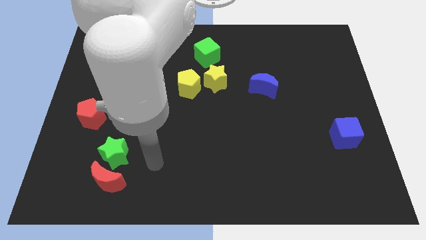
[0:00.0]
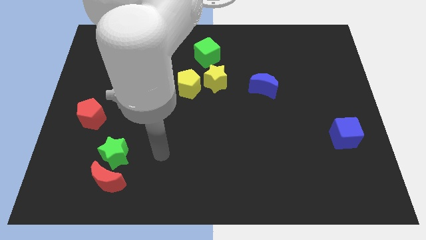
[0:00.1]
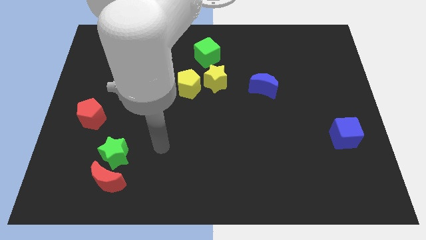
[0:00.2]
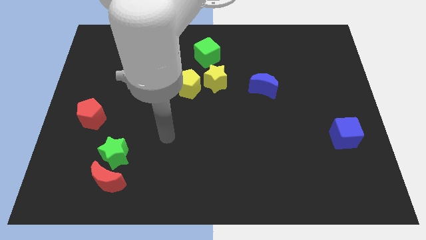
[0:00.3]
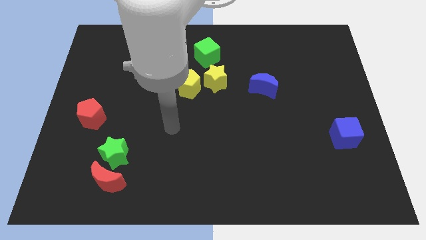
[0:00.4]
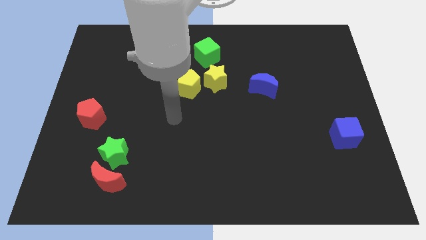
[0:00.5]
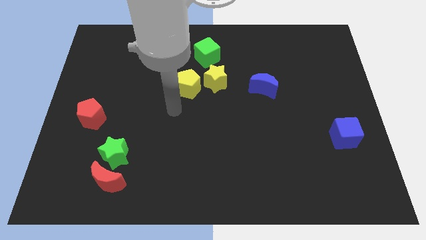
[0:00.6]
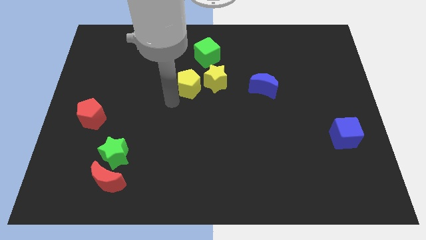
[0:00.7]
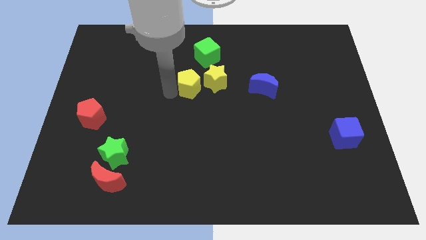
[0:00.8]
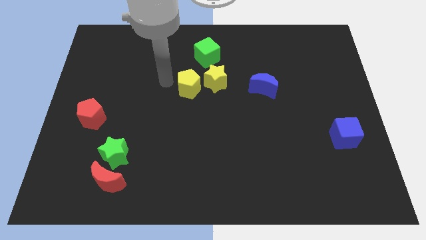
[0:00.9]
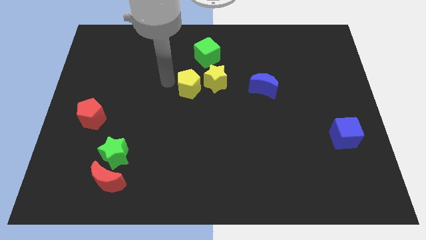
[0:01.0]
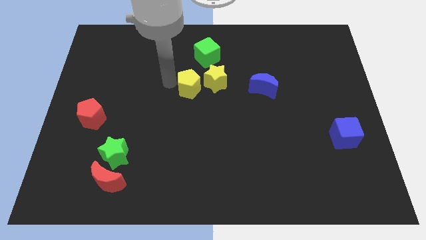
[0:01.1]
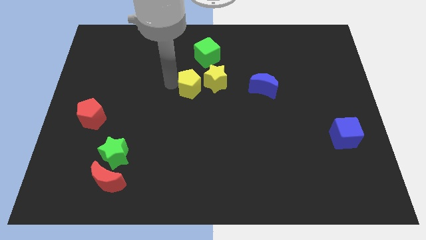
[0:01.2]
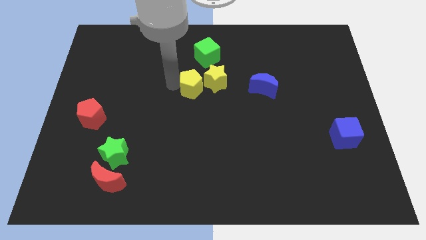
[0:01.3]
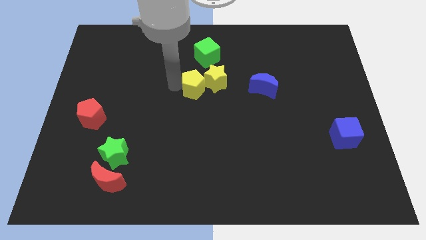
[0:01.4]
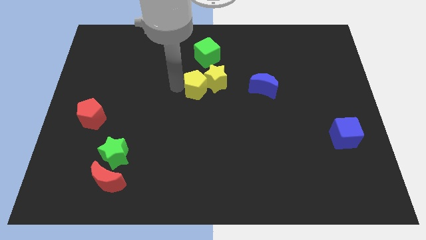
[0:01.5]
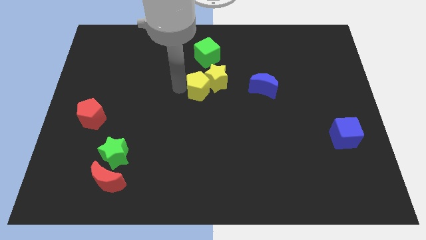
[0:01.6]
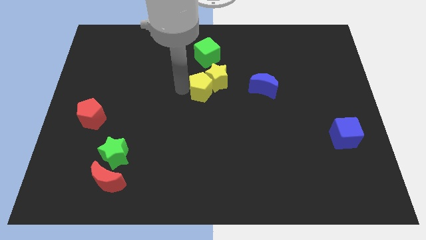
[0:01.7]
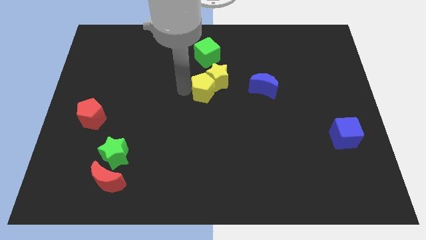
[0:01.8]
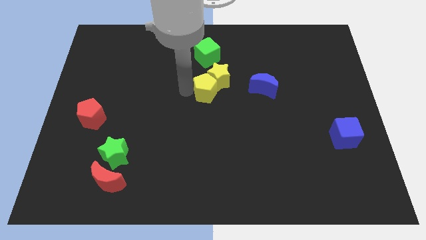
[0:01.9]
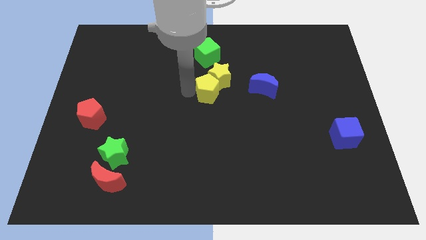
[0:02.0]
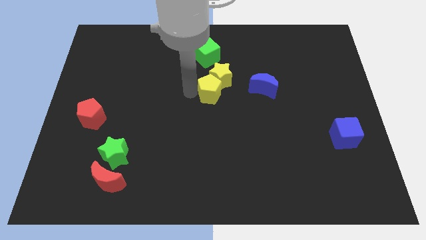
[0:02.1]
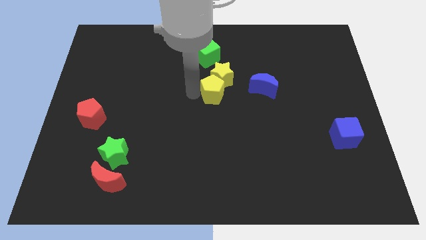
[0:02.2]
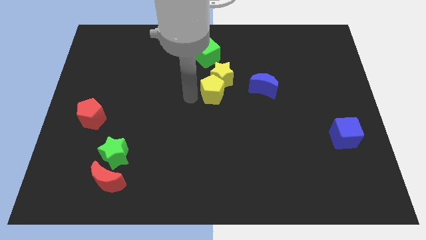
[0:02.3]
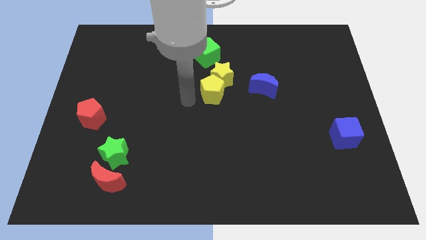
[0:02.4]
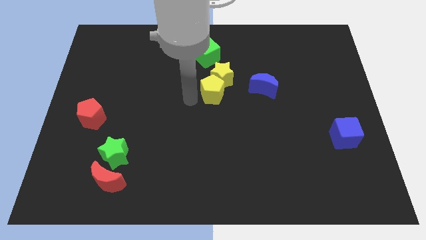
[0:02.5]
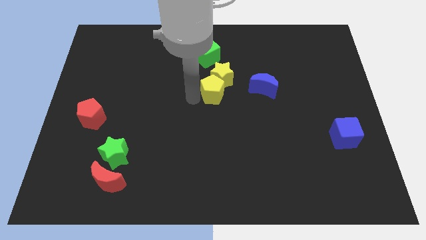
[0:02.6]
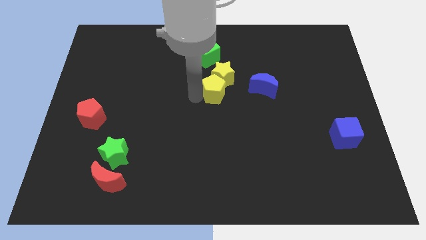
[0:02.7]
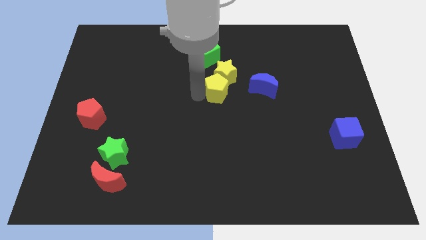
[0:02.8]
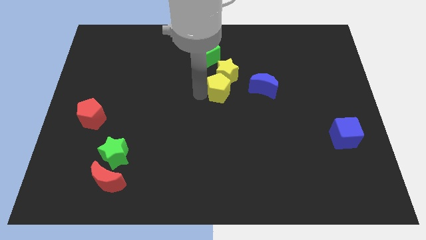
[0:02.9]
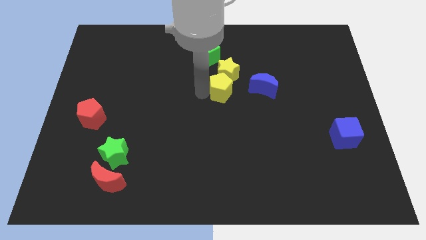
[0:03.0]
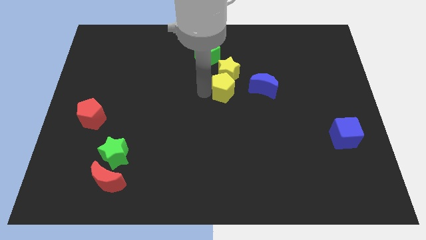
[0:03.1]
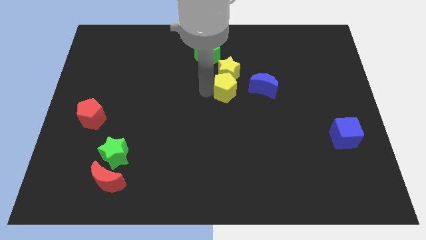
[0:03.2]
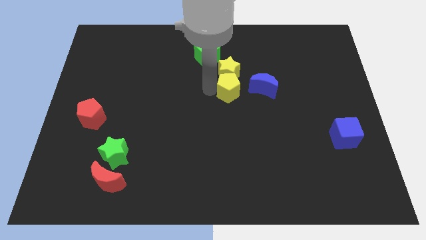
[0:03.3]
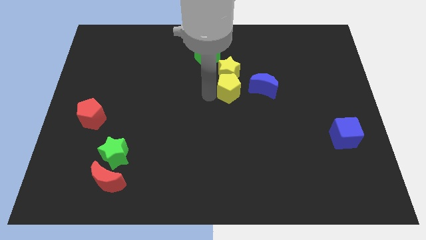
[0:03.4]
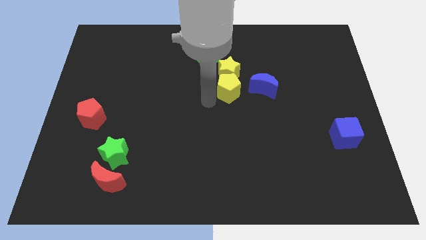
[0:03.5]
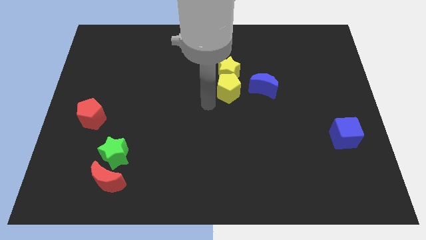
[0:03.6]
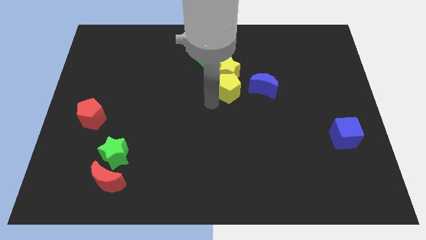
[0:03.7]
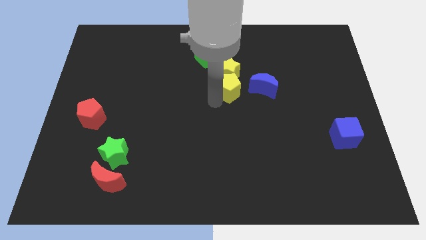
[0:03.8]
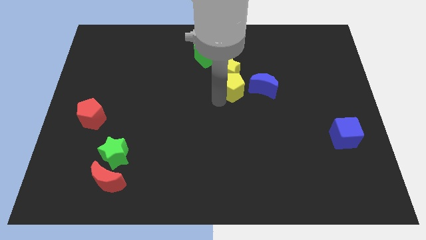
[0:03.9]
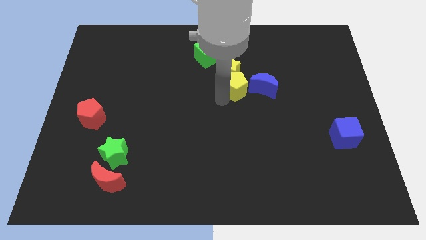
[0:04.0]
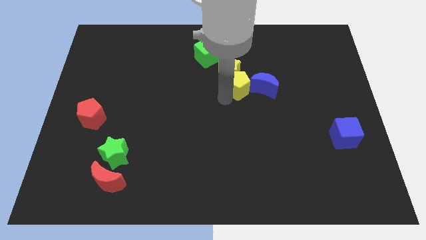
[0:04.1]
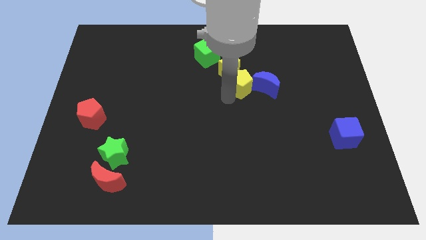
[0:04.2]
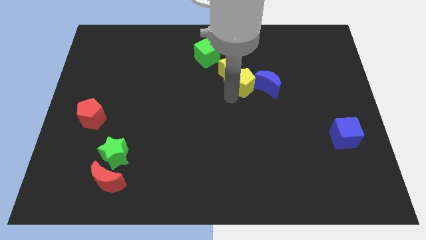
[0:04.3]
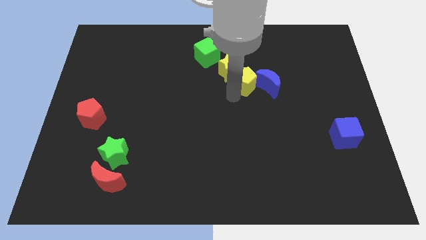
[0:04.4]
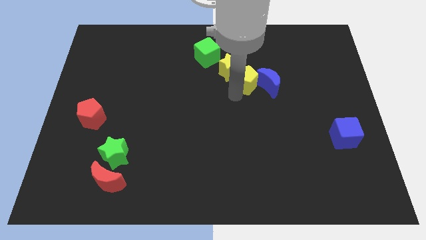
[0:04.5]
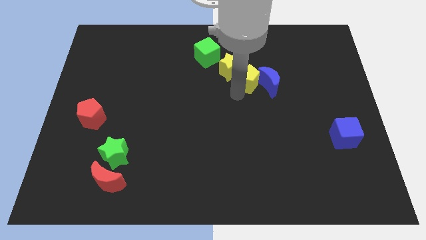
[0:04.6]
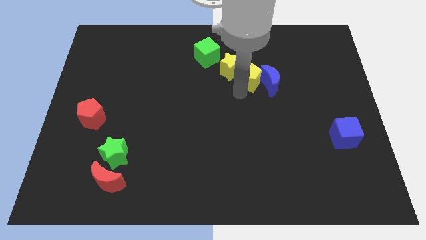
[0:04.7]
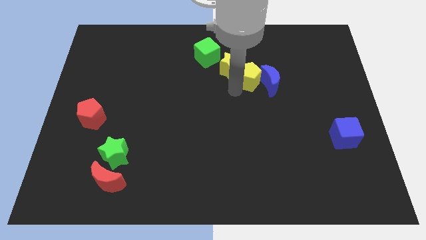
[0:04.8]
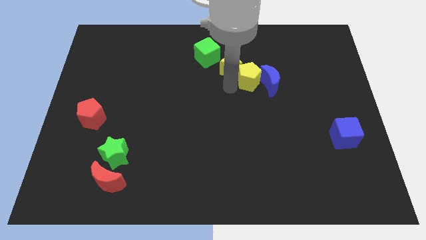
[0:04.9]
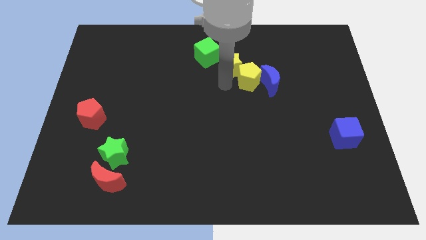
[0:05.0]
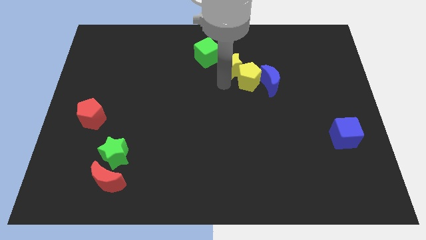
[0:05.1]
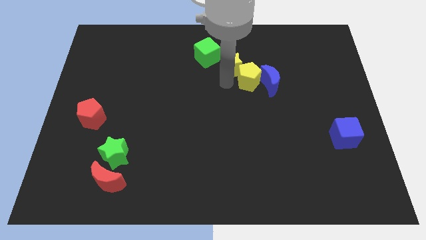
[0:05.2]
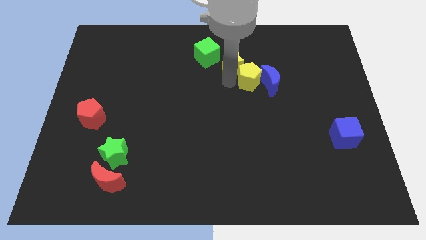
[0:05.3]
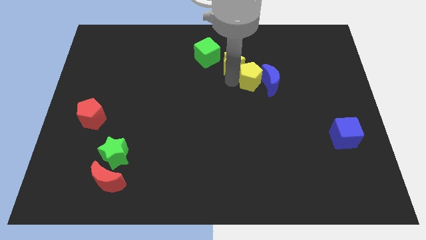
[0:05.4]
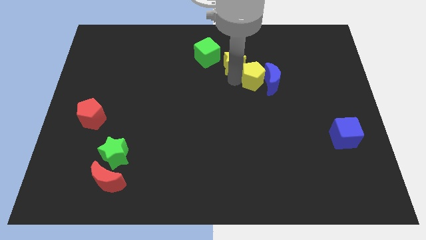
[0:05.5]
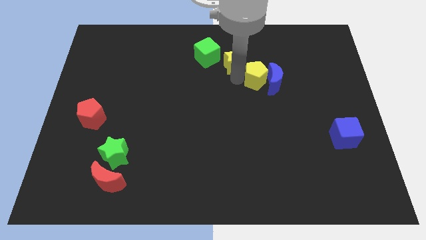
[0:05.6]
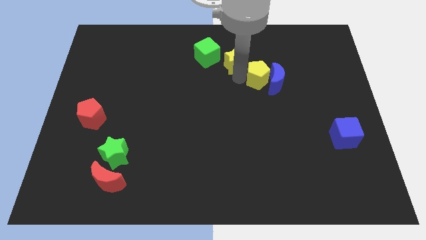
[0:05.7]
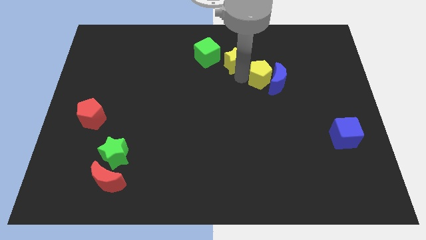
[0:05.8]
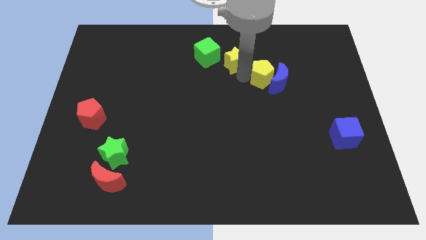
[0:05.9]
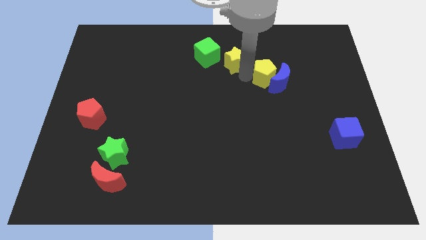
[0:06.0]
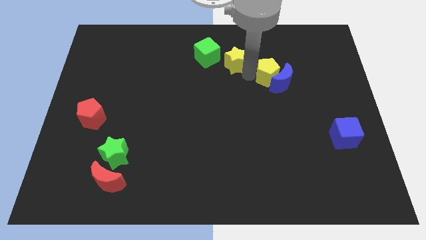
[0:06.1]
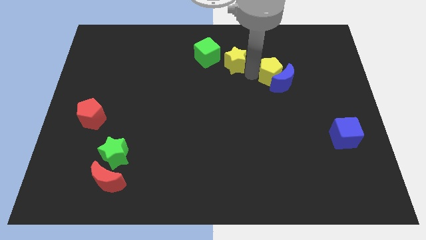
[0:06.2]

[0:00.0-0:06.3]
push the yellow pentagon right

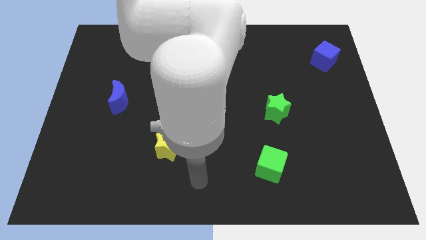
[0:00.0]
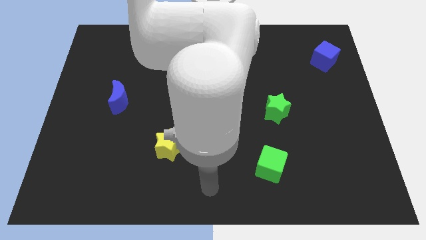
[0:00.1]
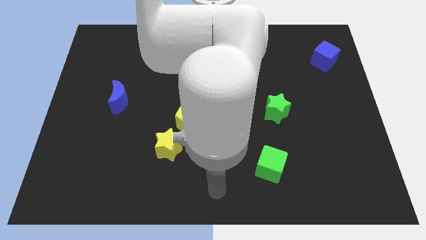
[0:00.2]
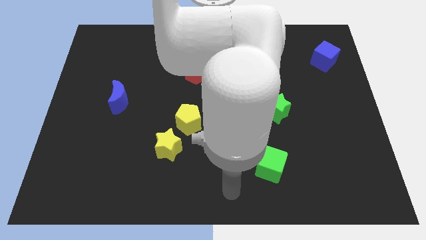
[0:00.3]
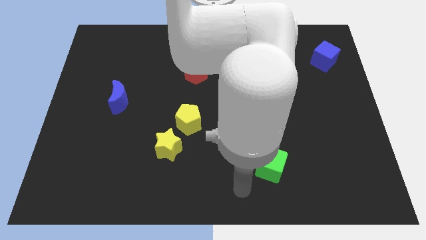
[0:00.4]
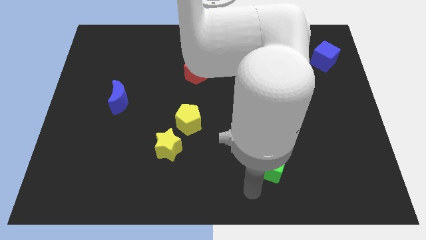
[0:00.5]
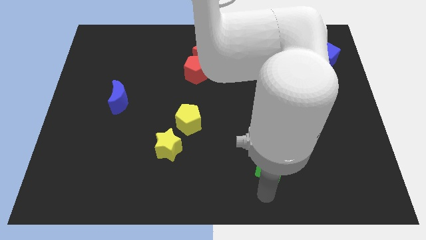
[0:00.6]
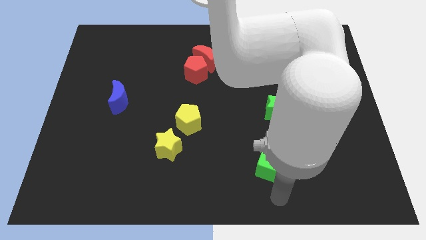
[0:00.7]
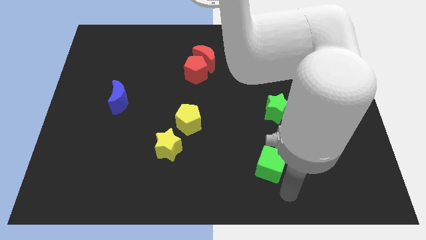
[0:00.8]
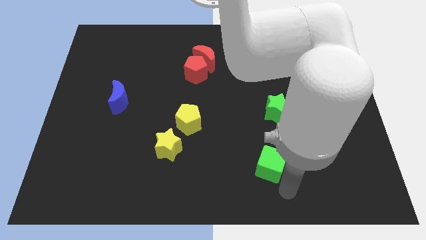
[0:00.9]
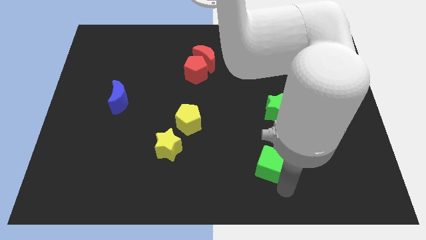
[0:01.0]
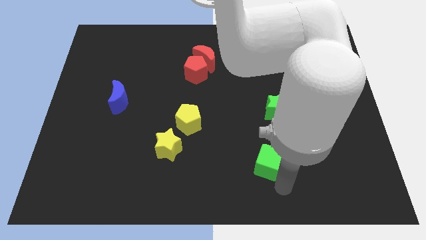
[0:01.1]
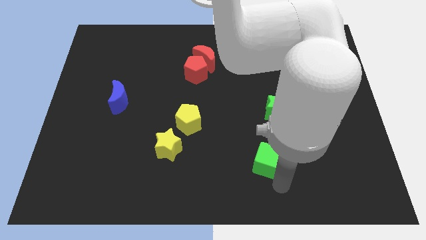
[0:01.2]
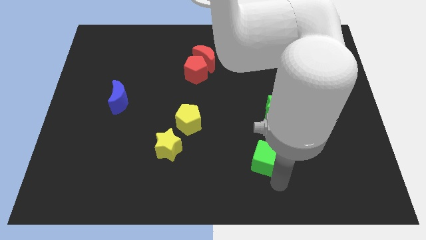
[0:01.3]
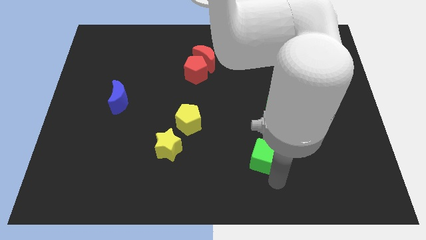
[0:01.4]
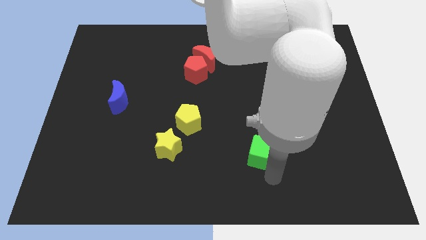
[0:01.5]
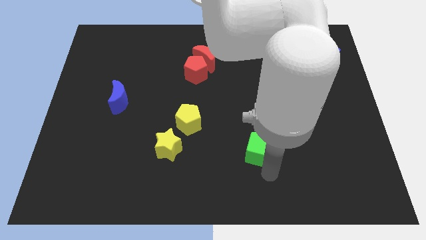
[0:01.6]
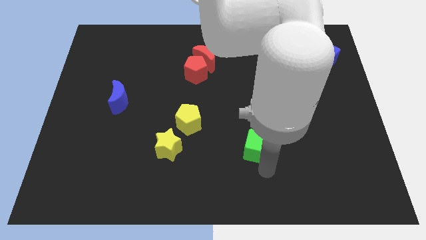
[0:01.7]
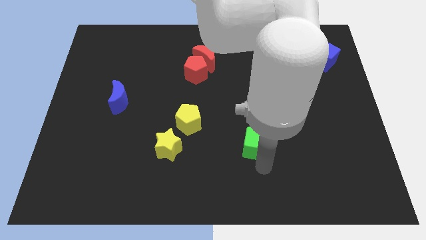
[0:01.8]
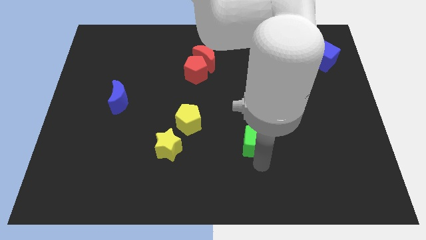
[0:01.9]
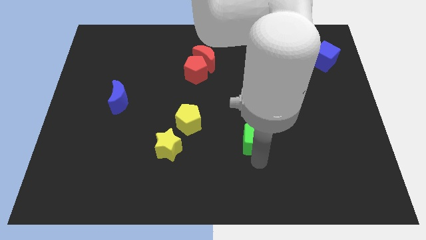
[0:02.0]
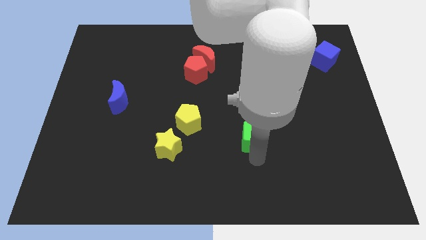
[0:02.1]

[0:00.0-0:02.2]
move the green cube slightly up and left diagonally
